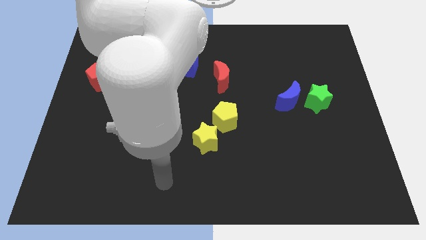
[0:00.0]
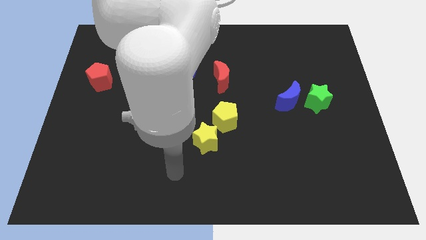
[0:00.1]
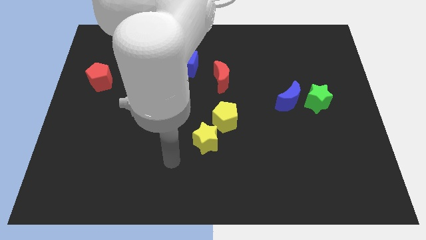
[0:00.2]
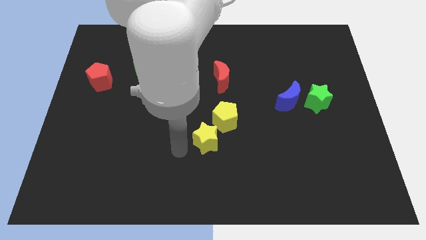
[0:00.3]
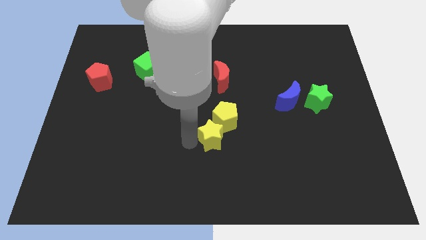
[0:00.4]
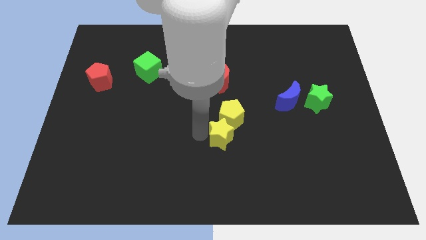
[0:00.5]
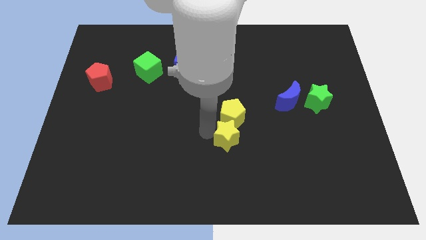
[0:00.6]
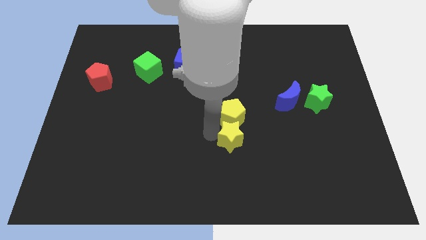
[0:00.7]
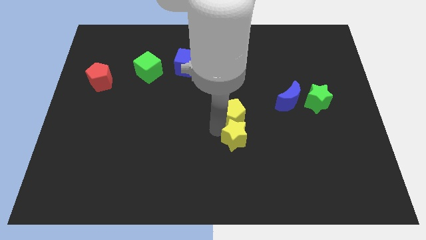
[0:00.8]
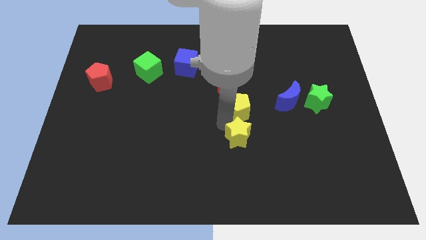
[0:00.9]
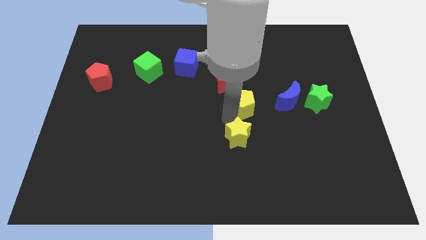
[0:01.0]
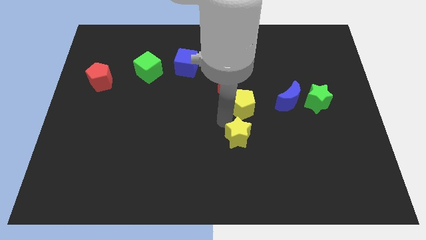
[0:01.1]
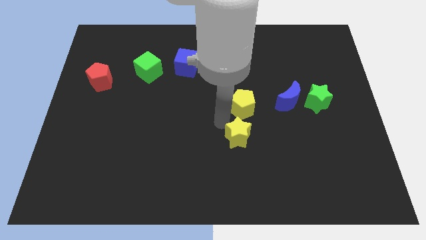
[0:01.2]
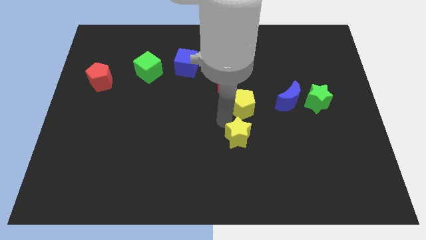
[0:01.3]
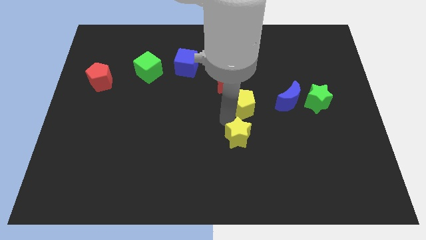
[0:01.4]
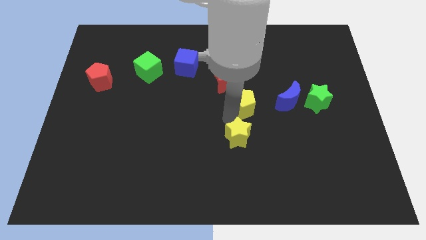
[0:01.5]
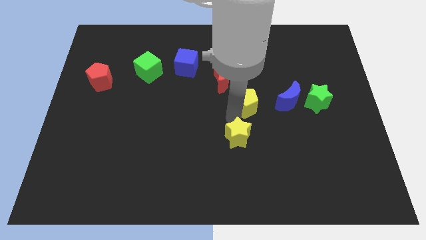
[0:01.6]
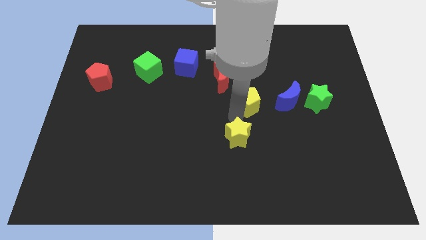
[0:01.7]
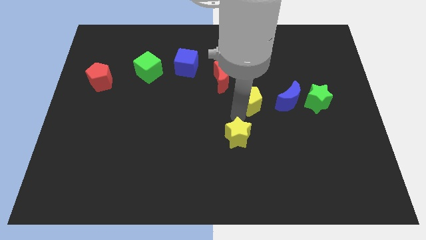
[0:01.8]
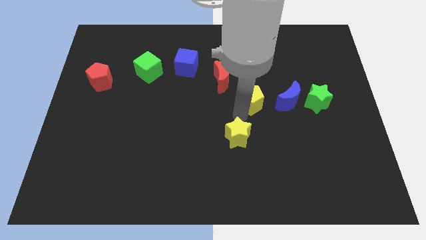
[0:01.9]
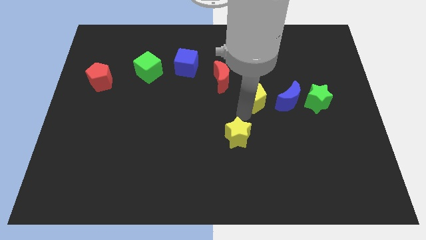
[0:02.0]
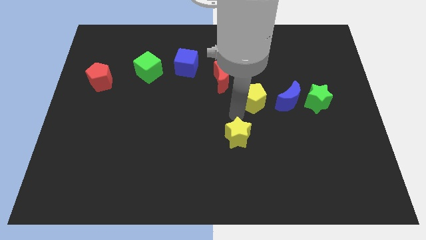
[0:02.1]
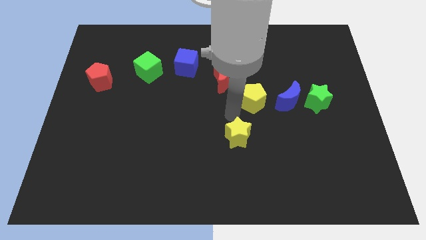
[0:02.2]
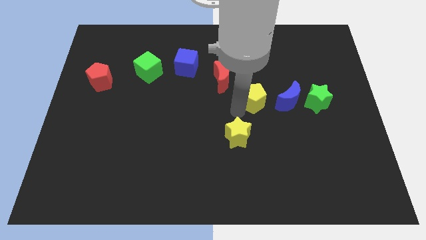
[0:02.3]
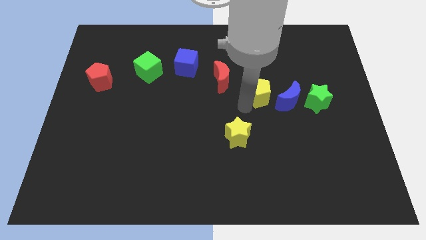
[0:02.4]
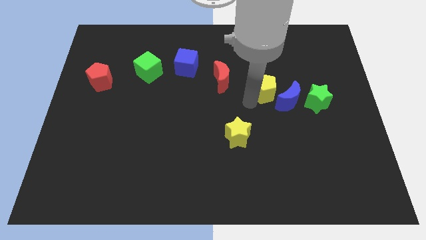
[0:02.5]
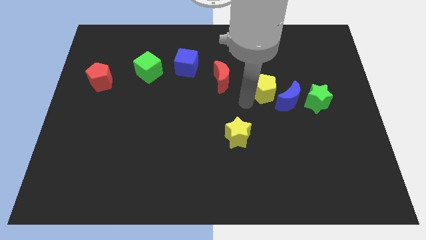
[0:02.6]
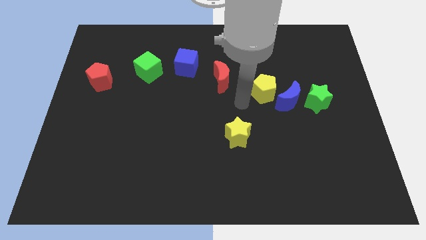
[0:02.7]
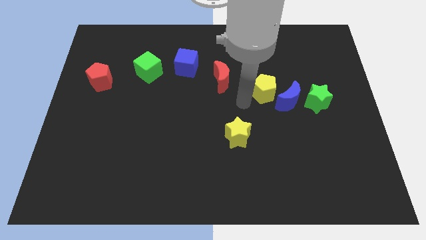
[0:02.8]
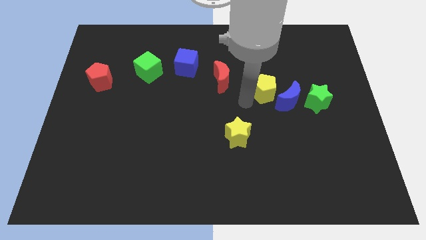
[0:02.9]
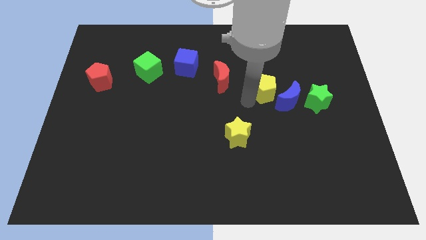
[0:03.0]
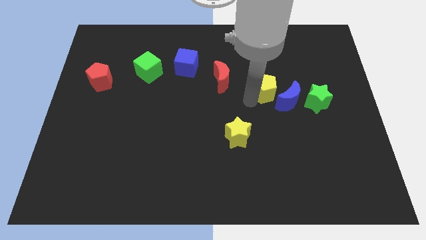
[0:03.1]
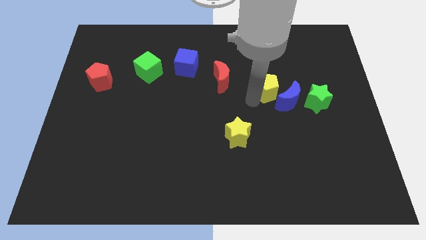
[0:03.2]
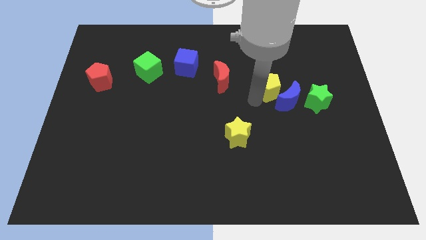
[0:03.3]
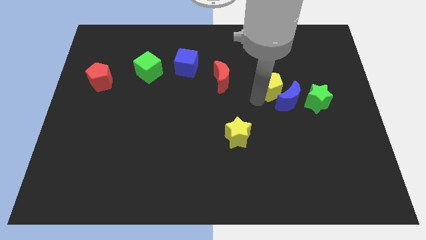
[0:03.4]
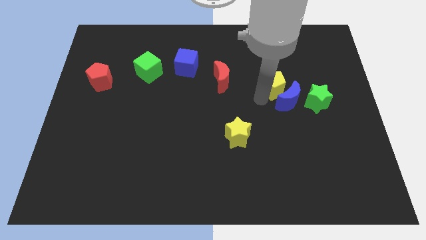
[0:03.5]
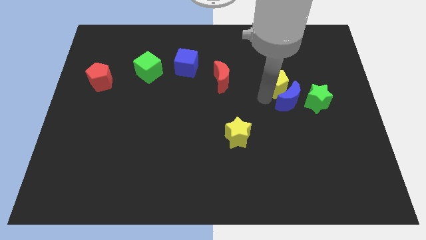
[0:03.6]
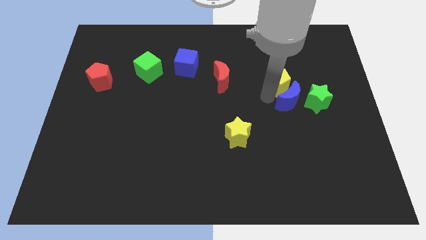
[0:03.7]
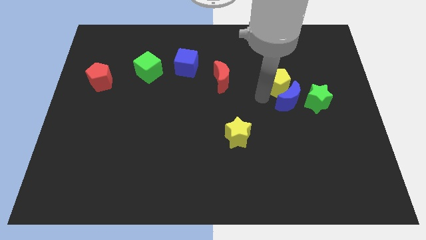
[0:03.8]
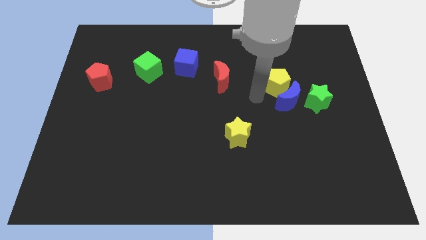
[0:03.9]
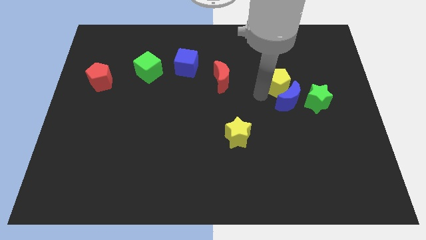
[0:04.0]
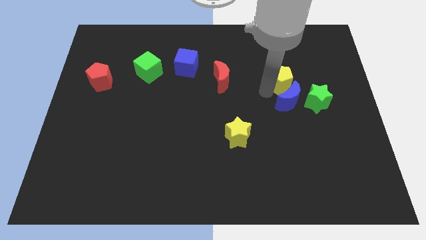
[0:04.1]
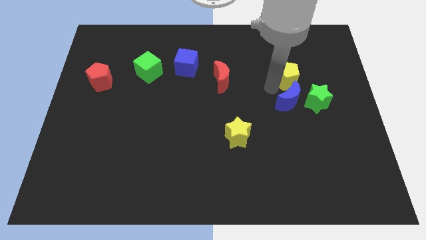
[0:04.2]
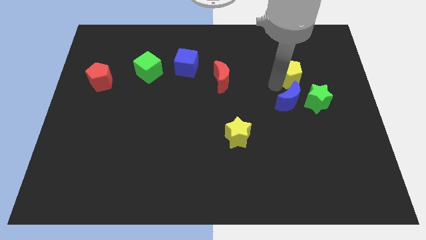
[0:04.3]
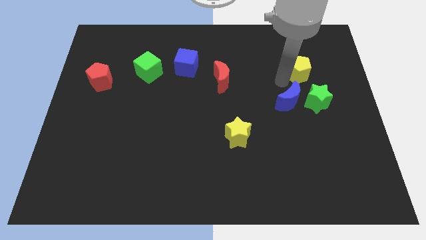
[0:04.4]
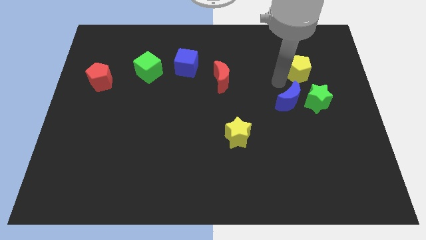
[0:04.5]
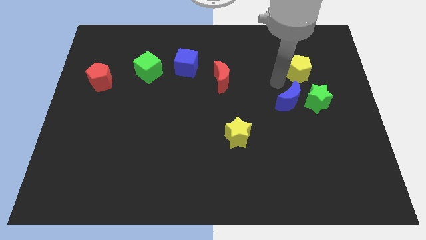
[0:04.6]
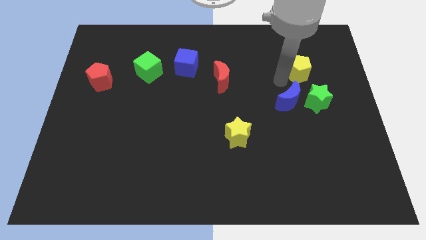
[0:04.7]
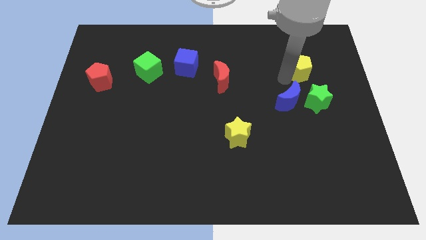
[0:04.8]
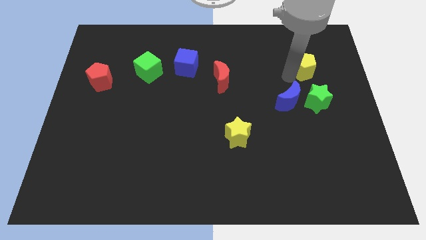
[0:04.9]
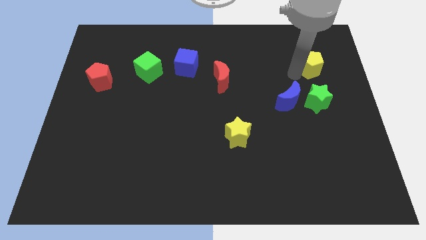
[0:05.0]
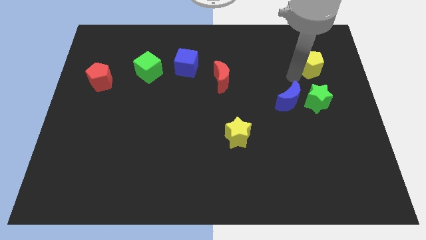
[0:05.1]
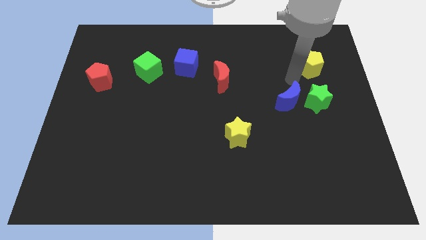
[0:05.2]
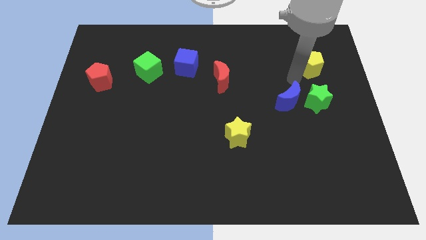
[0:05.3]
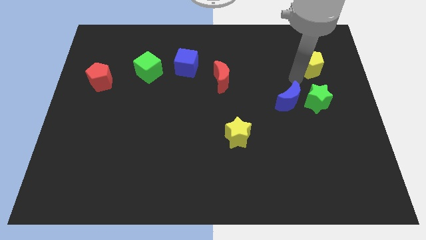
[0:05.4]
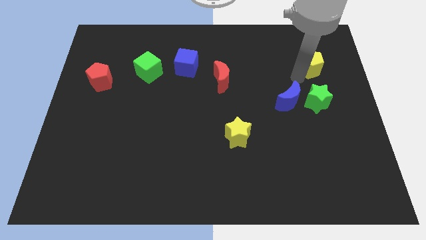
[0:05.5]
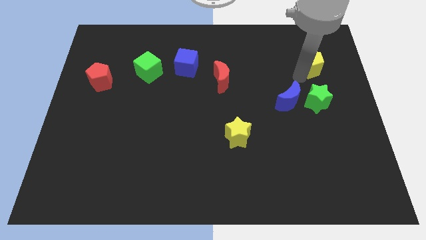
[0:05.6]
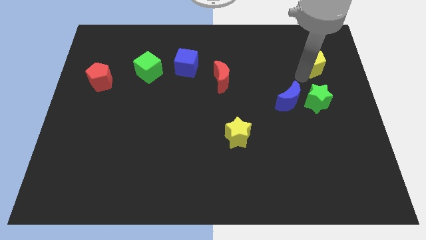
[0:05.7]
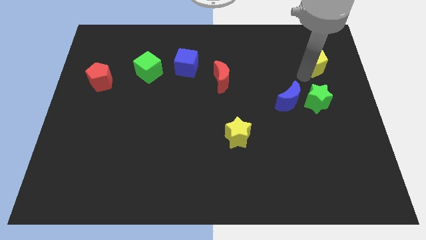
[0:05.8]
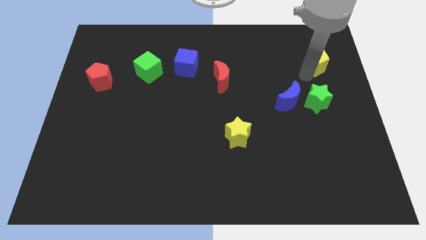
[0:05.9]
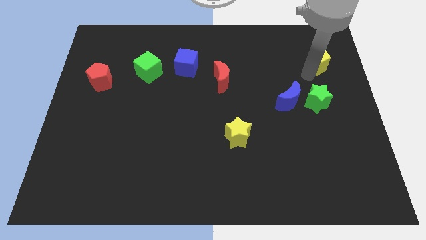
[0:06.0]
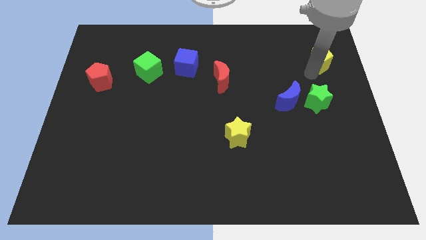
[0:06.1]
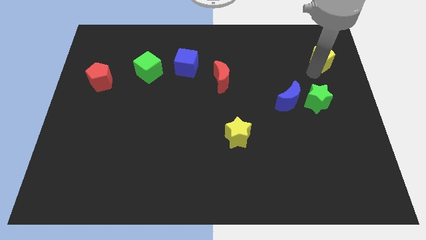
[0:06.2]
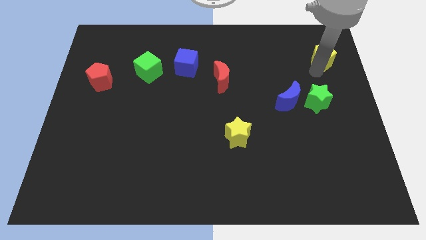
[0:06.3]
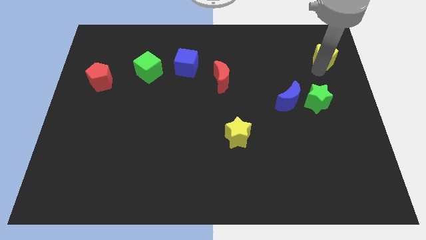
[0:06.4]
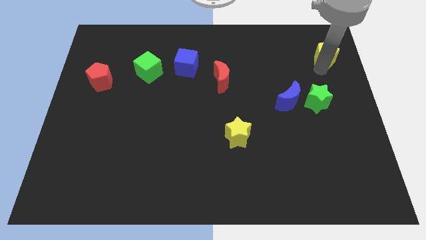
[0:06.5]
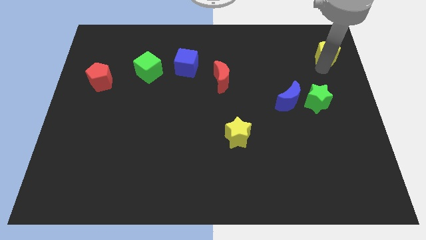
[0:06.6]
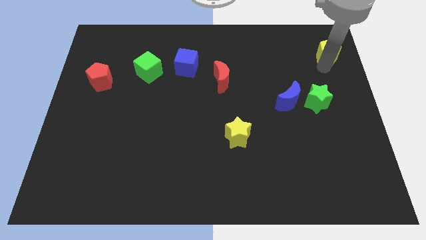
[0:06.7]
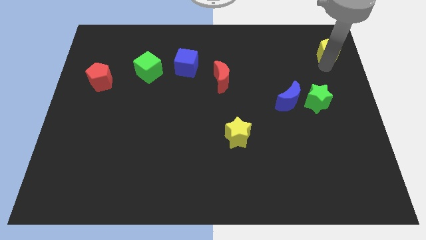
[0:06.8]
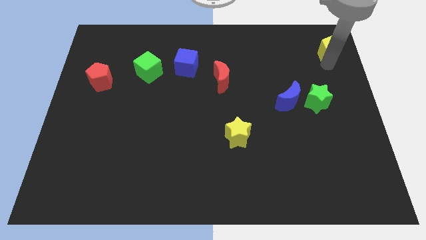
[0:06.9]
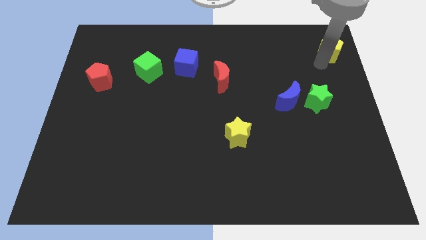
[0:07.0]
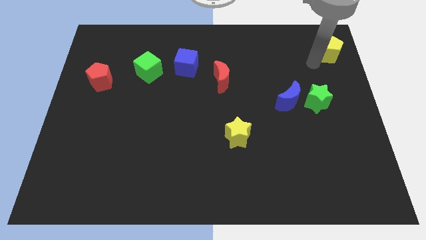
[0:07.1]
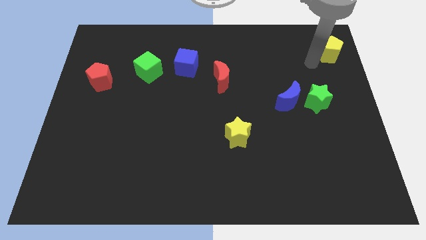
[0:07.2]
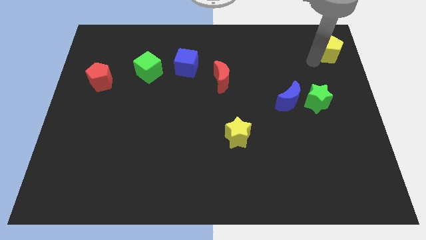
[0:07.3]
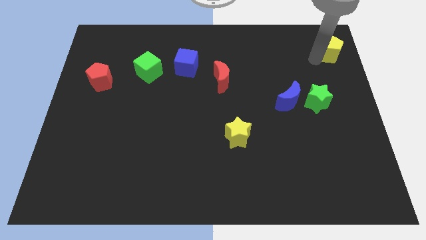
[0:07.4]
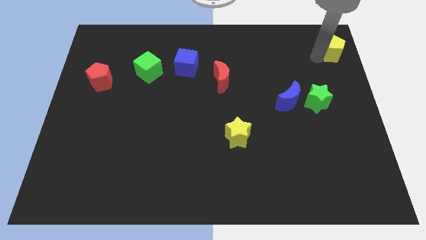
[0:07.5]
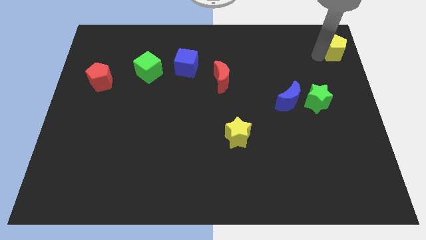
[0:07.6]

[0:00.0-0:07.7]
put the yellow pentagon to the upper right corner
